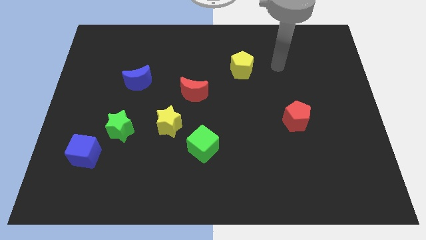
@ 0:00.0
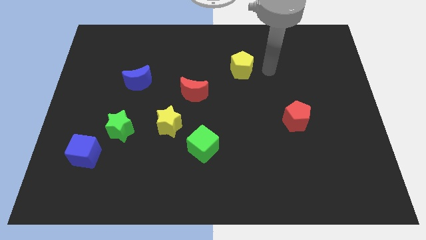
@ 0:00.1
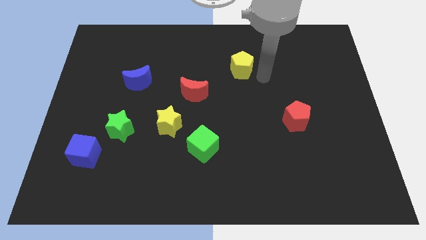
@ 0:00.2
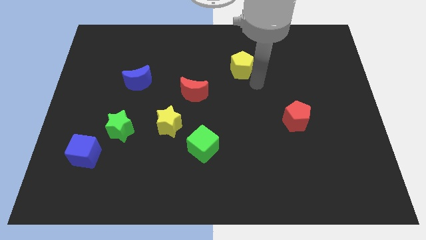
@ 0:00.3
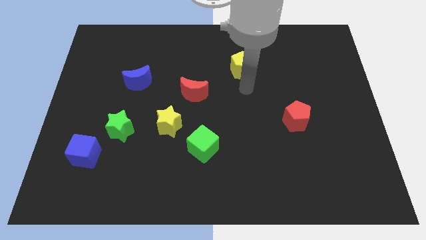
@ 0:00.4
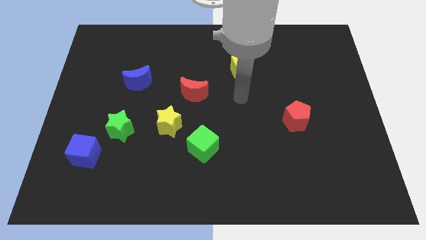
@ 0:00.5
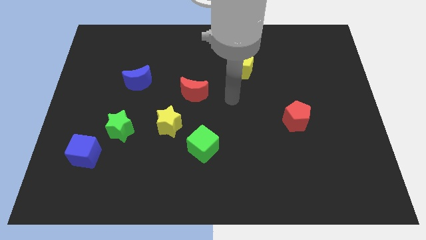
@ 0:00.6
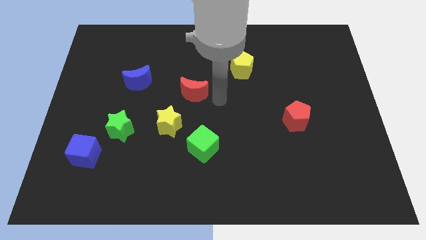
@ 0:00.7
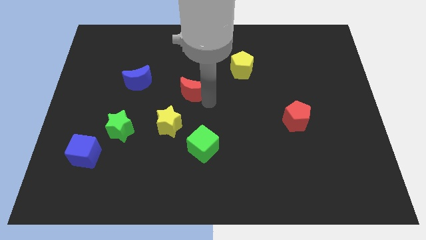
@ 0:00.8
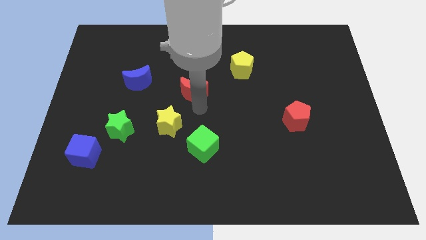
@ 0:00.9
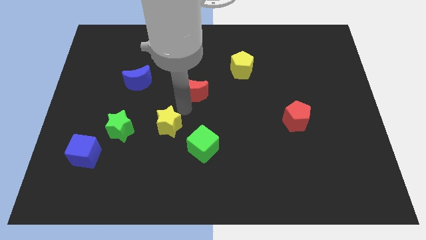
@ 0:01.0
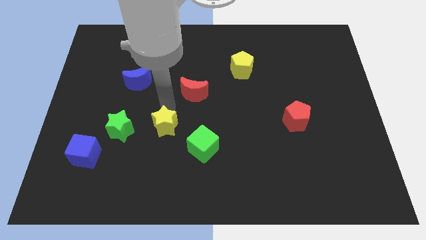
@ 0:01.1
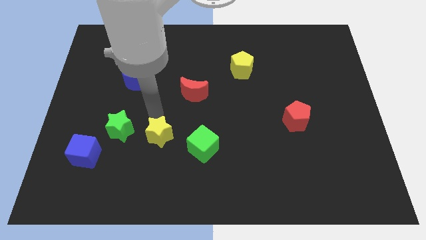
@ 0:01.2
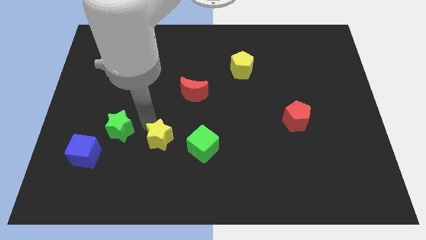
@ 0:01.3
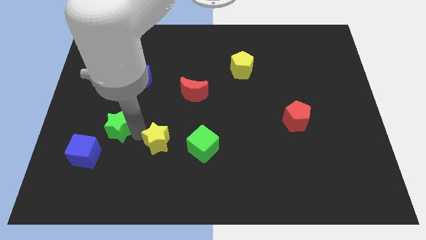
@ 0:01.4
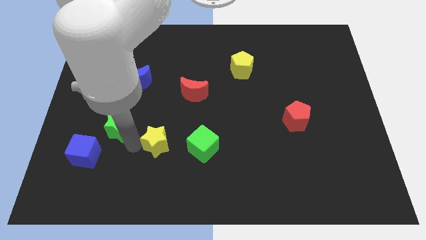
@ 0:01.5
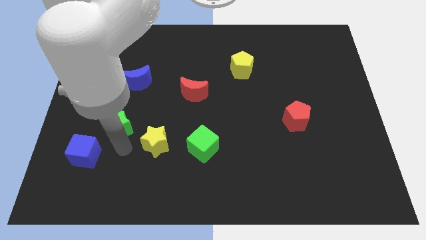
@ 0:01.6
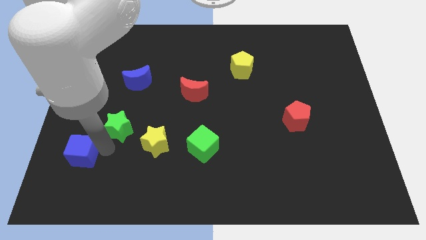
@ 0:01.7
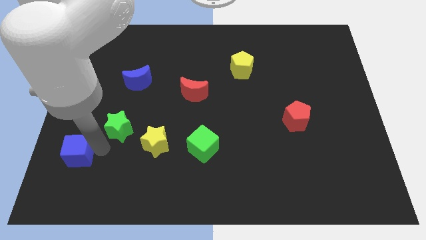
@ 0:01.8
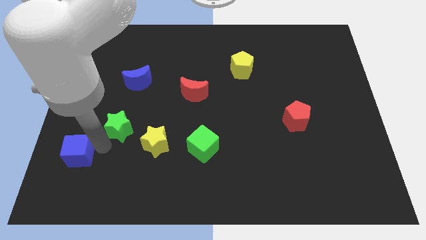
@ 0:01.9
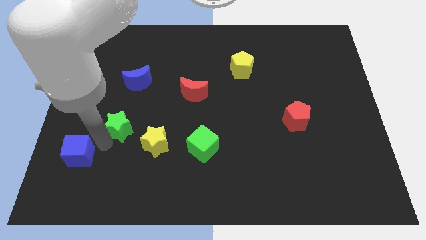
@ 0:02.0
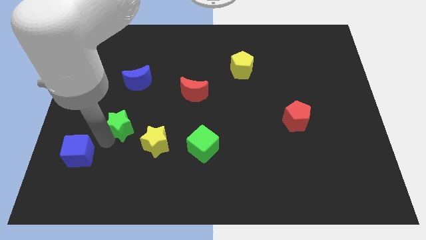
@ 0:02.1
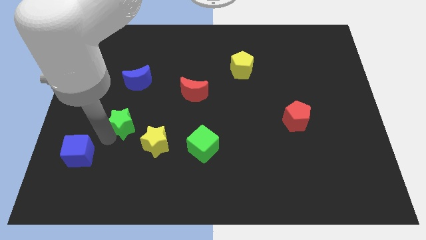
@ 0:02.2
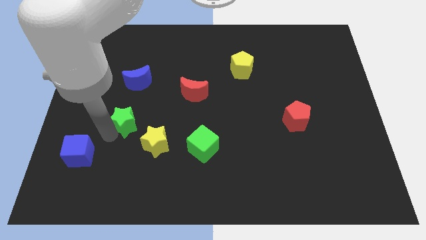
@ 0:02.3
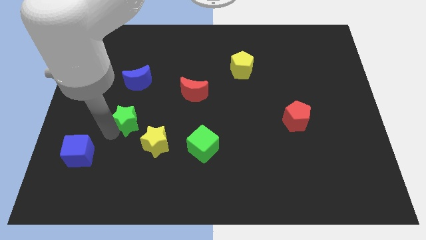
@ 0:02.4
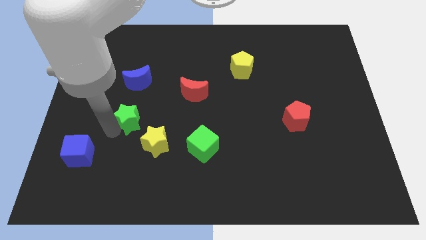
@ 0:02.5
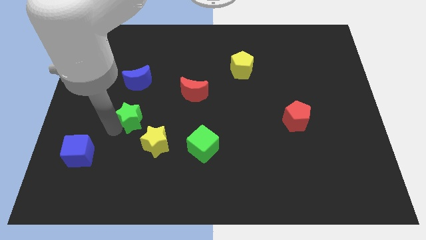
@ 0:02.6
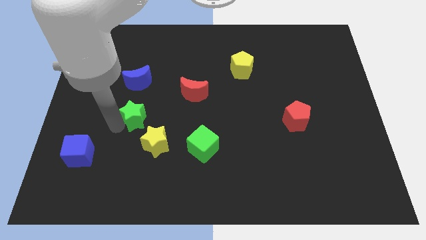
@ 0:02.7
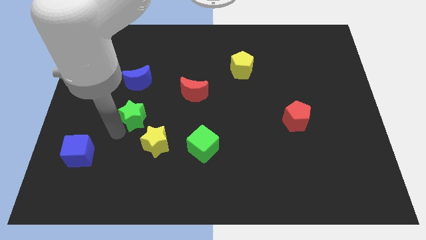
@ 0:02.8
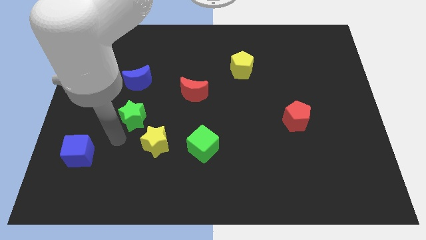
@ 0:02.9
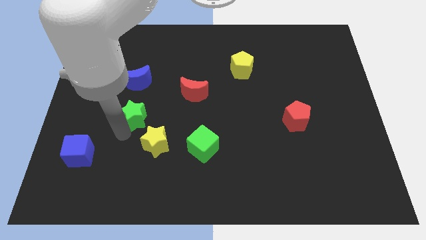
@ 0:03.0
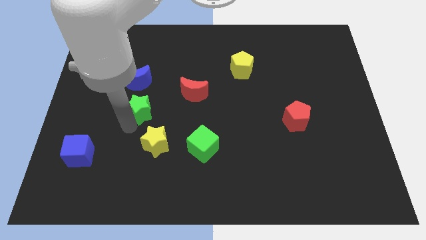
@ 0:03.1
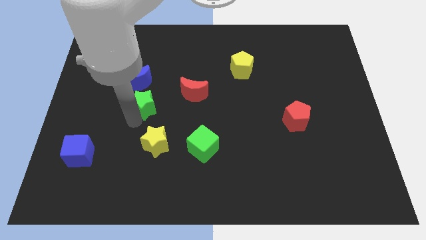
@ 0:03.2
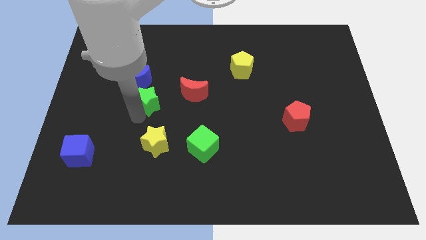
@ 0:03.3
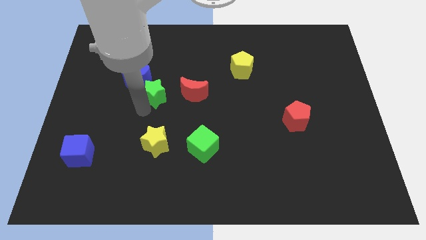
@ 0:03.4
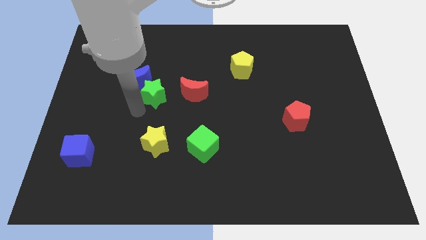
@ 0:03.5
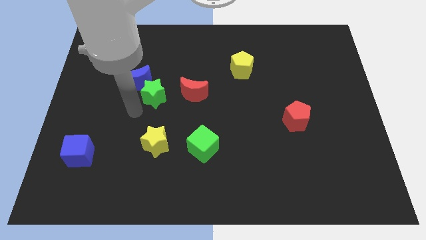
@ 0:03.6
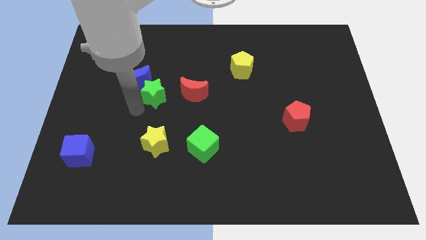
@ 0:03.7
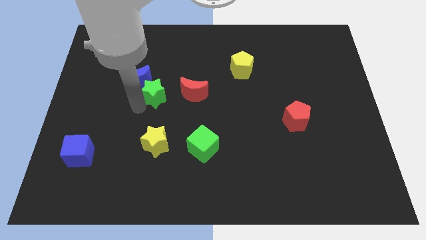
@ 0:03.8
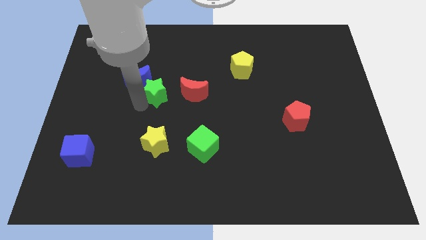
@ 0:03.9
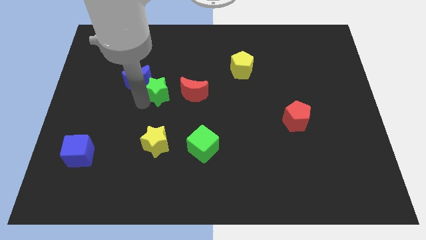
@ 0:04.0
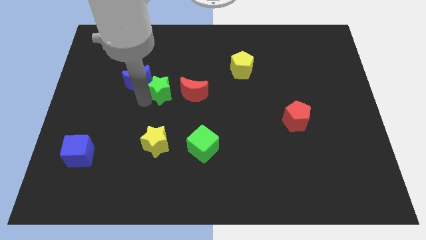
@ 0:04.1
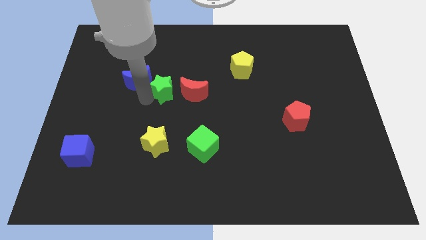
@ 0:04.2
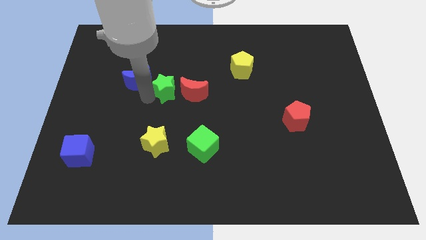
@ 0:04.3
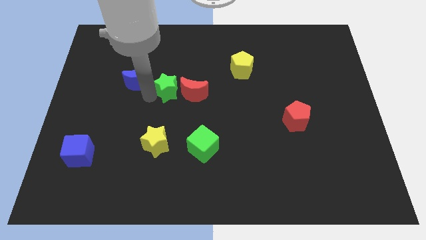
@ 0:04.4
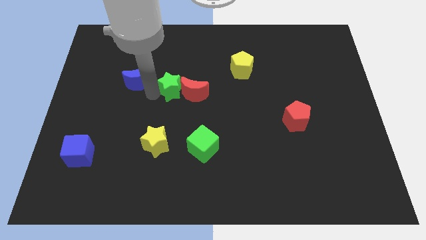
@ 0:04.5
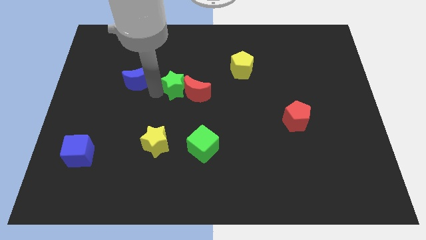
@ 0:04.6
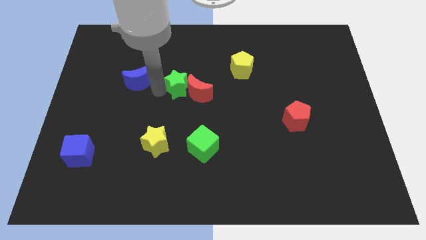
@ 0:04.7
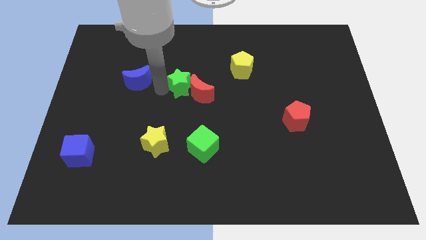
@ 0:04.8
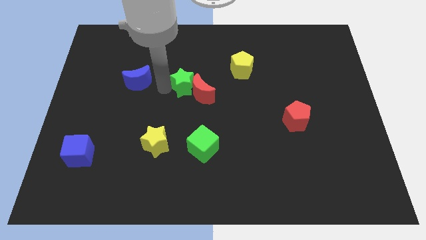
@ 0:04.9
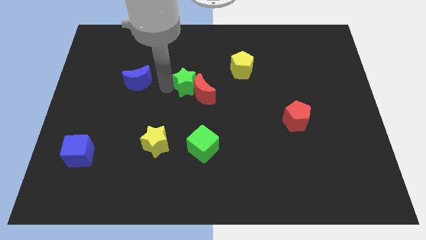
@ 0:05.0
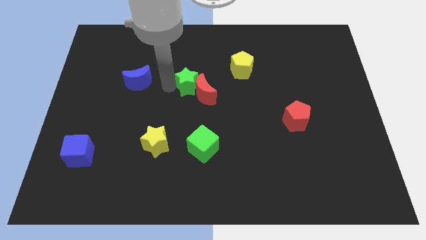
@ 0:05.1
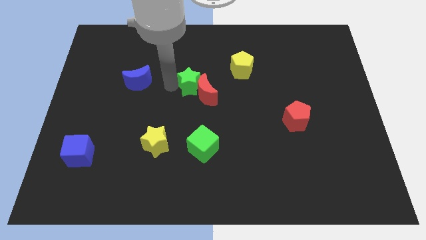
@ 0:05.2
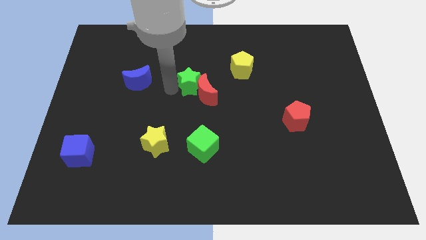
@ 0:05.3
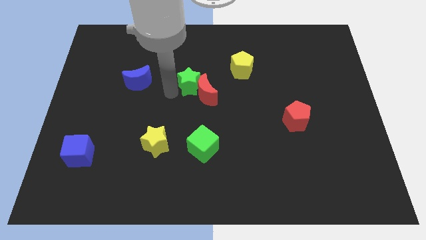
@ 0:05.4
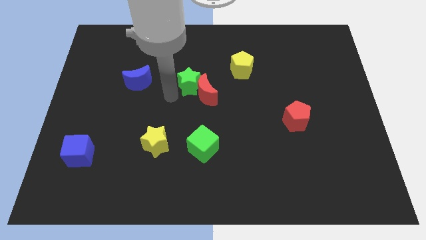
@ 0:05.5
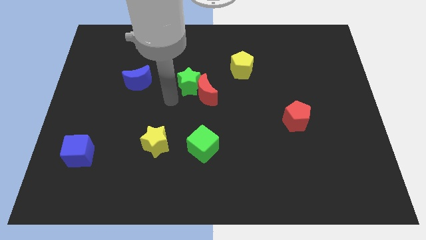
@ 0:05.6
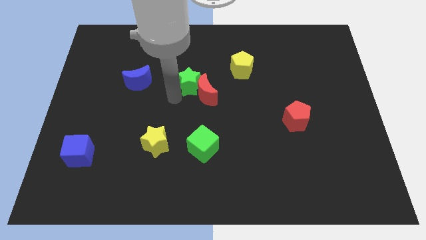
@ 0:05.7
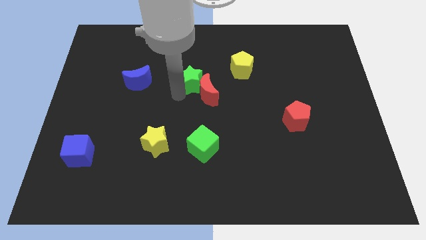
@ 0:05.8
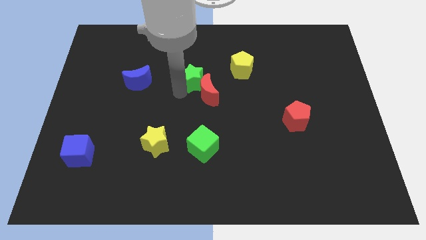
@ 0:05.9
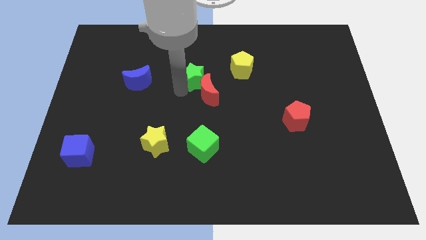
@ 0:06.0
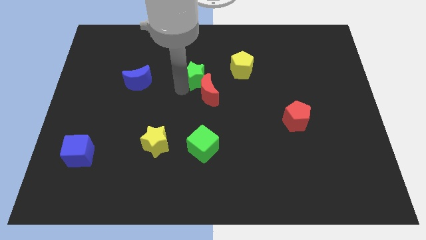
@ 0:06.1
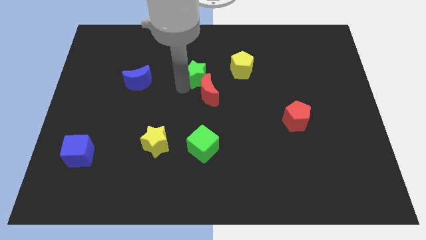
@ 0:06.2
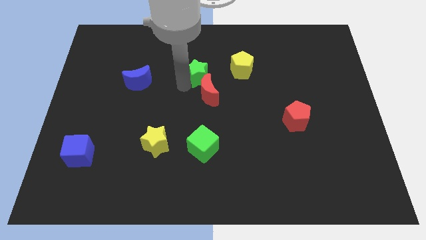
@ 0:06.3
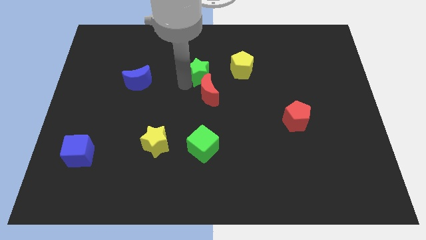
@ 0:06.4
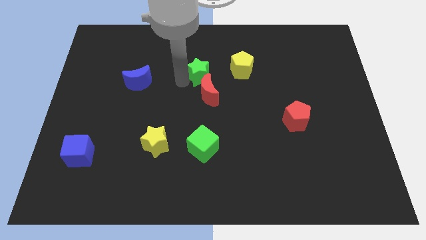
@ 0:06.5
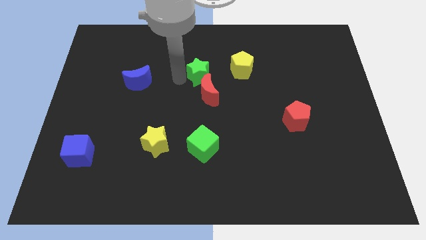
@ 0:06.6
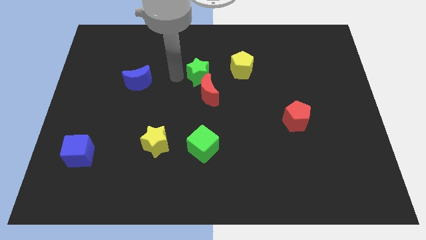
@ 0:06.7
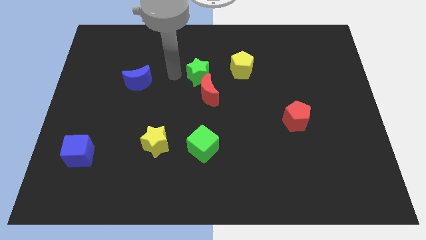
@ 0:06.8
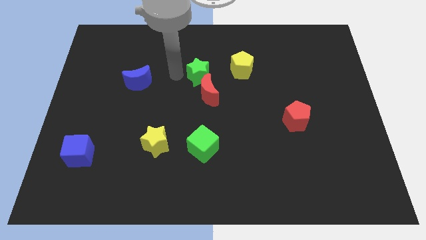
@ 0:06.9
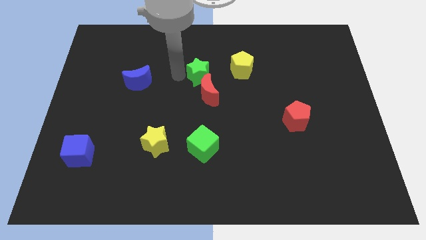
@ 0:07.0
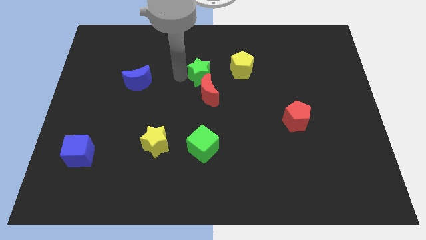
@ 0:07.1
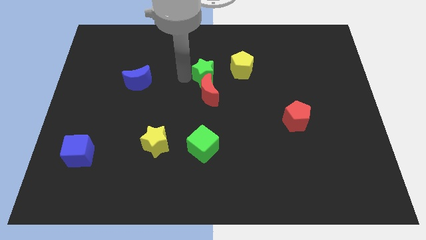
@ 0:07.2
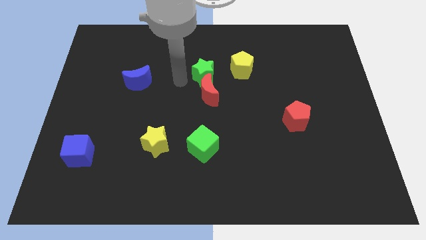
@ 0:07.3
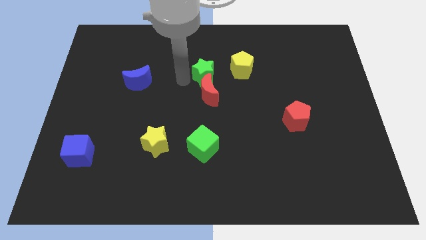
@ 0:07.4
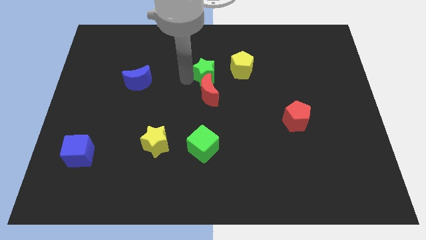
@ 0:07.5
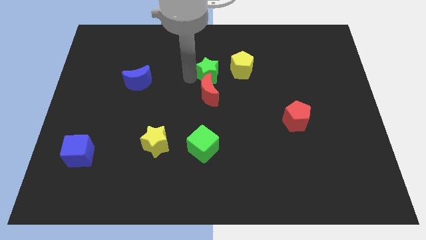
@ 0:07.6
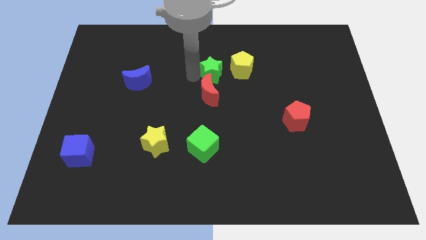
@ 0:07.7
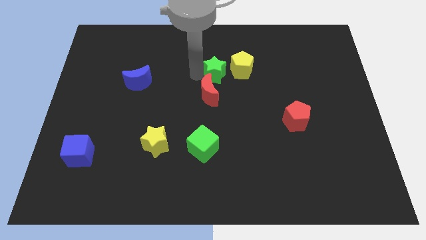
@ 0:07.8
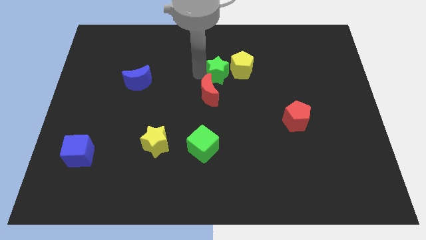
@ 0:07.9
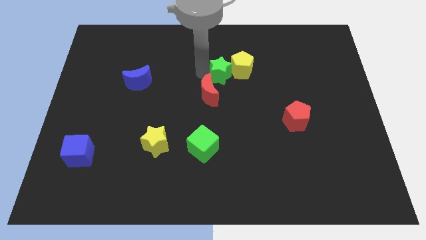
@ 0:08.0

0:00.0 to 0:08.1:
move the green star to the yellow pentagon

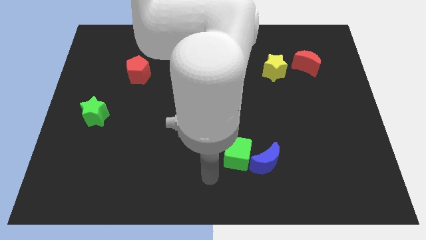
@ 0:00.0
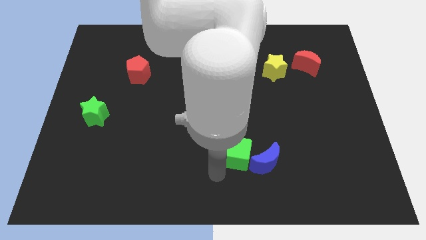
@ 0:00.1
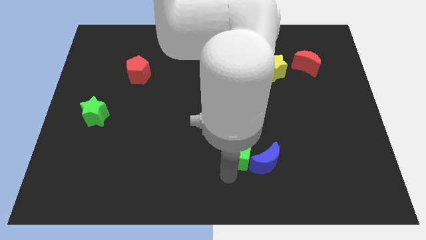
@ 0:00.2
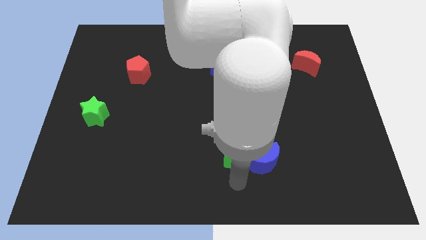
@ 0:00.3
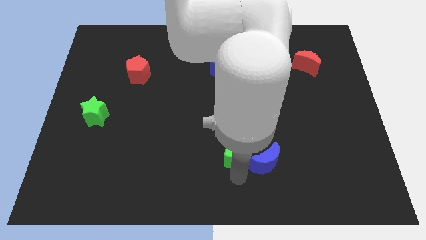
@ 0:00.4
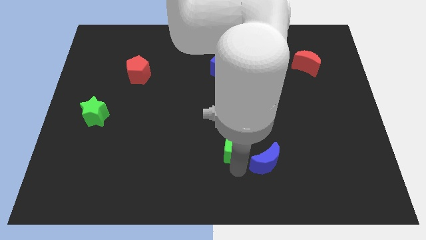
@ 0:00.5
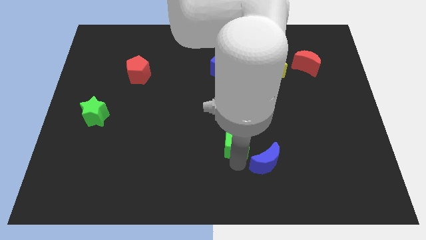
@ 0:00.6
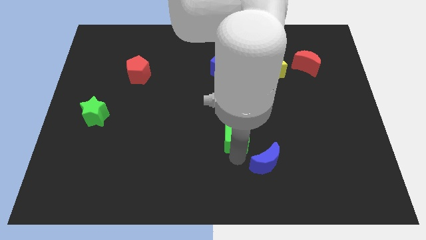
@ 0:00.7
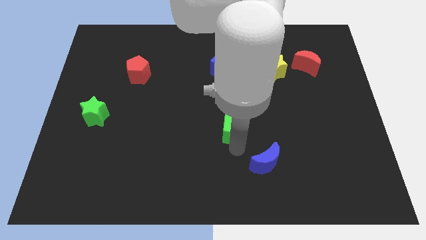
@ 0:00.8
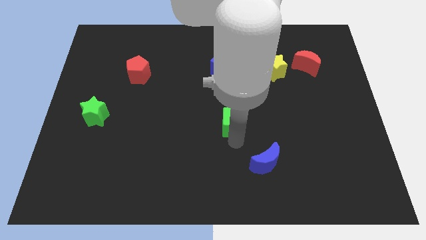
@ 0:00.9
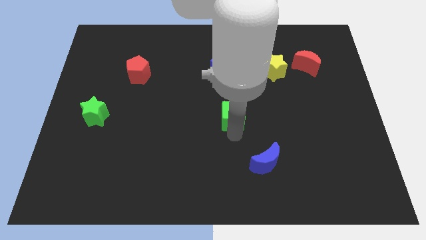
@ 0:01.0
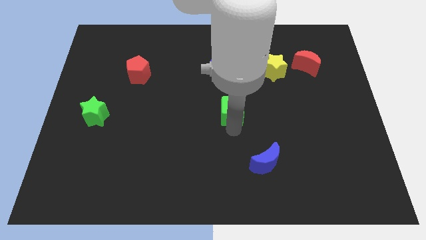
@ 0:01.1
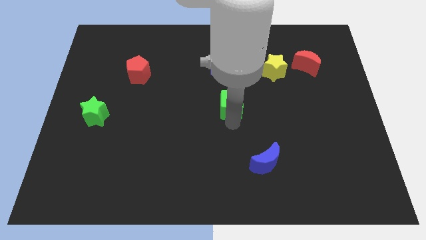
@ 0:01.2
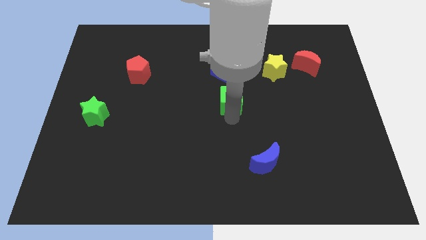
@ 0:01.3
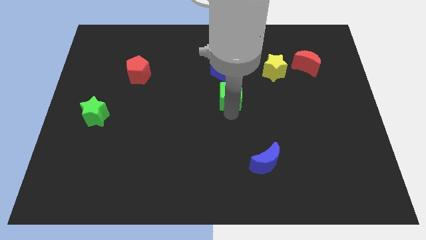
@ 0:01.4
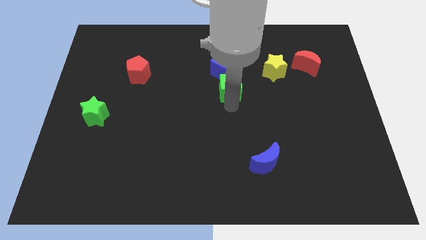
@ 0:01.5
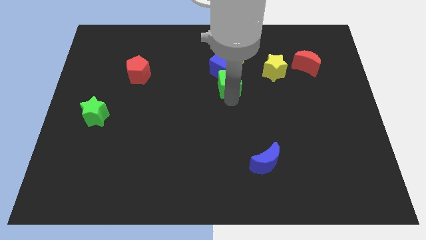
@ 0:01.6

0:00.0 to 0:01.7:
move the green cube towards the blue cube
